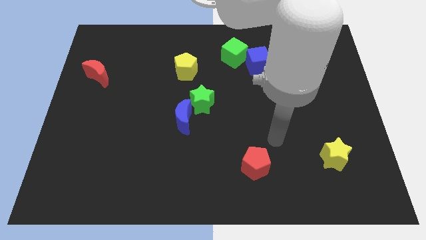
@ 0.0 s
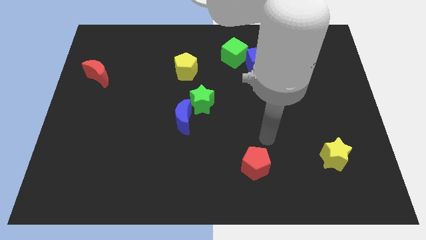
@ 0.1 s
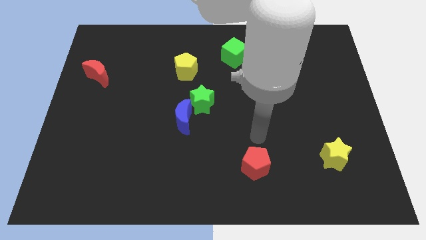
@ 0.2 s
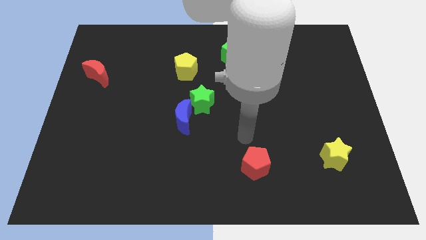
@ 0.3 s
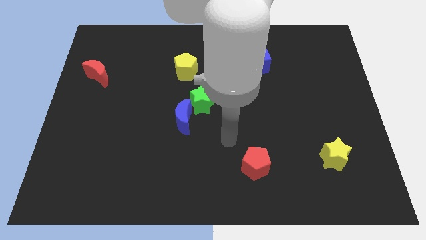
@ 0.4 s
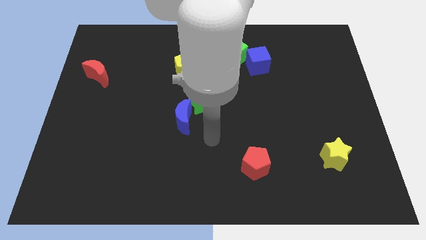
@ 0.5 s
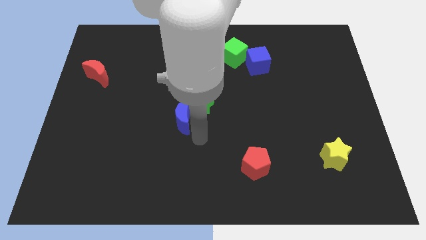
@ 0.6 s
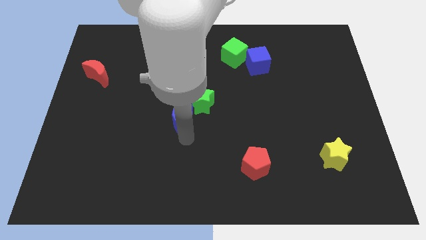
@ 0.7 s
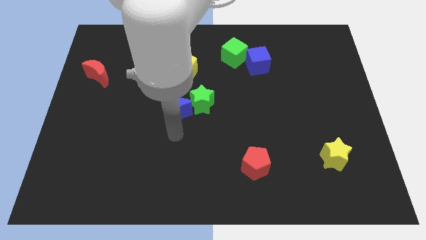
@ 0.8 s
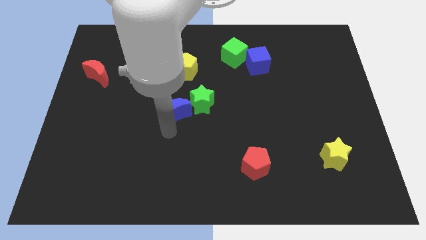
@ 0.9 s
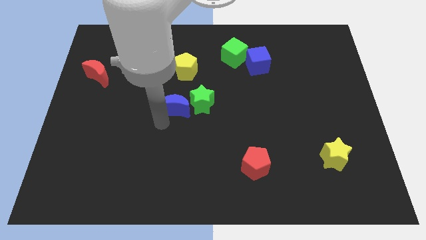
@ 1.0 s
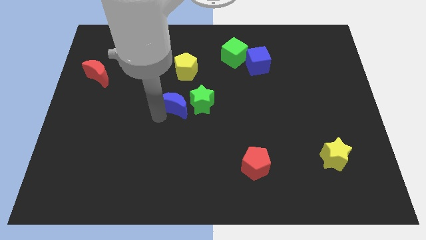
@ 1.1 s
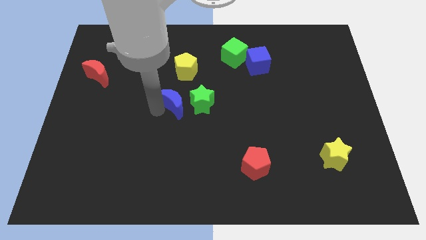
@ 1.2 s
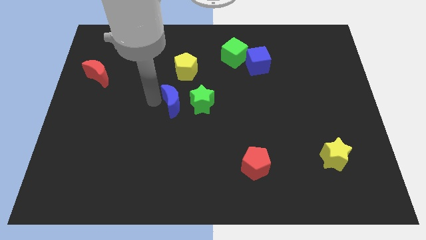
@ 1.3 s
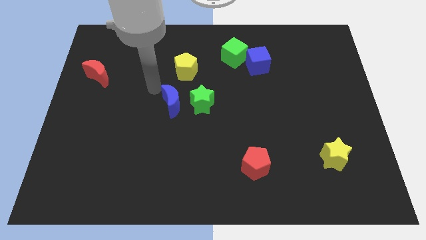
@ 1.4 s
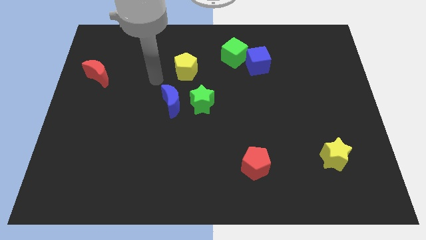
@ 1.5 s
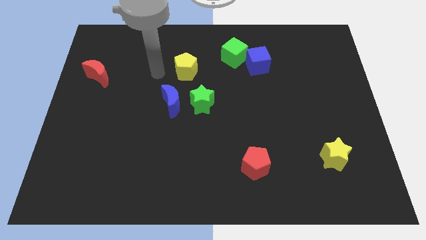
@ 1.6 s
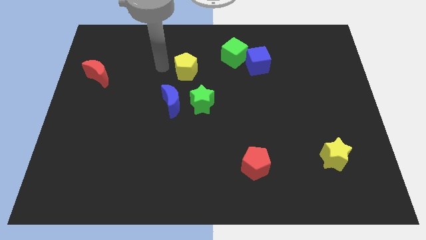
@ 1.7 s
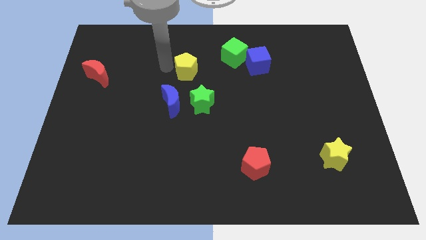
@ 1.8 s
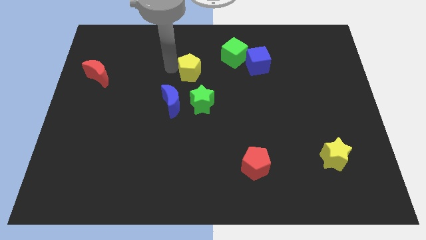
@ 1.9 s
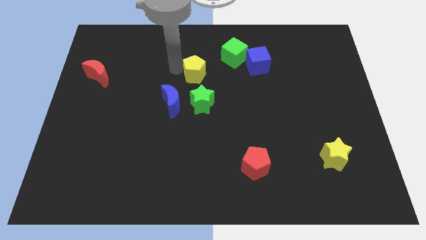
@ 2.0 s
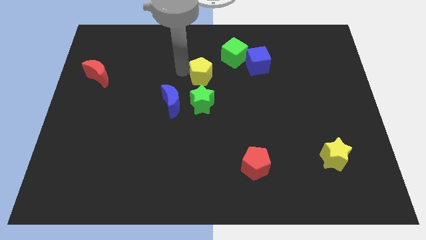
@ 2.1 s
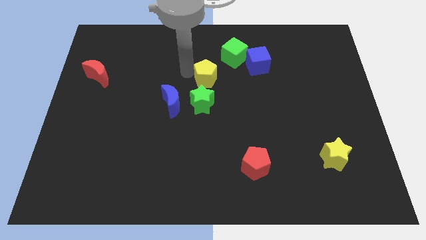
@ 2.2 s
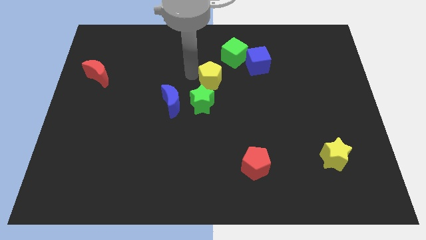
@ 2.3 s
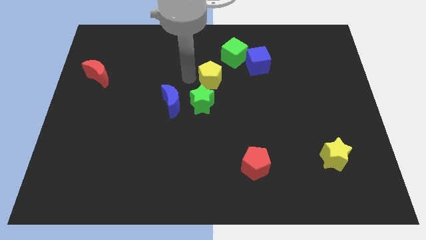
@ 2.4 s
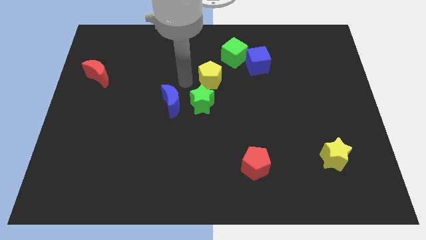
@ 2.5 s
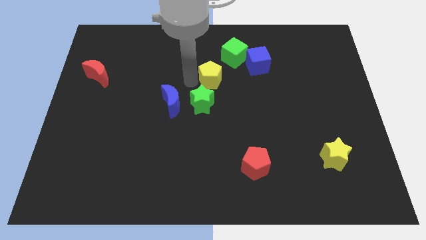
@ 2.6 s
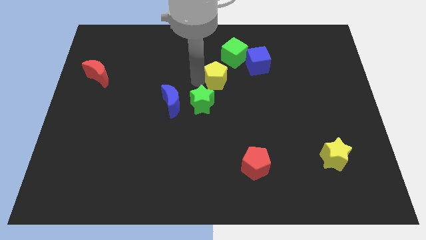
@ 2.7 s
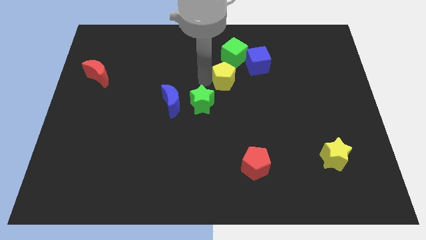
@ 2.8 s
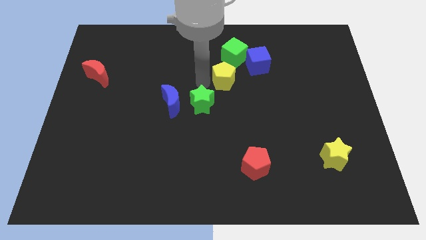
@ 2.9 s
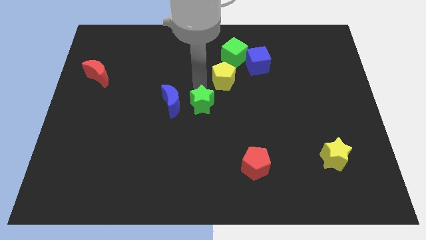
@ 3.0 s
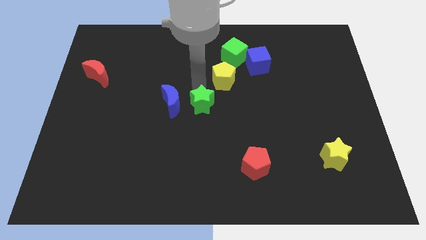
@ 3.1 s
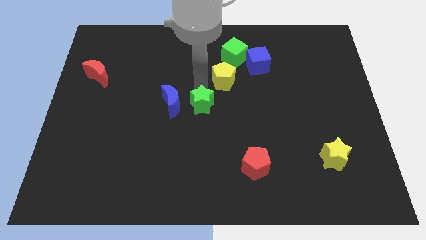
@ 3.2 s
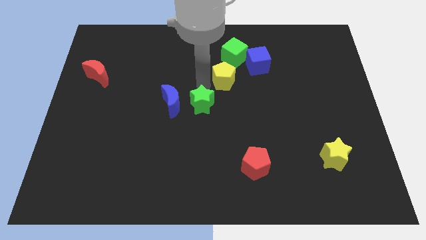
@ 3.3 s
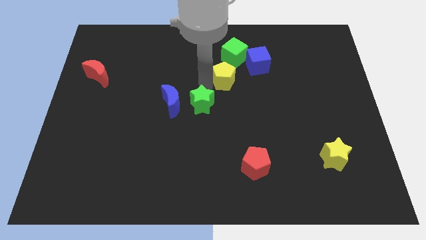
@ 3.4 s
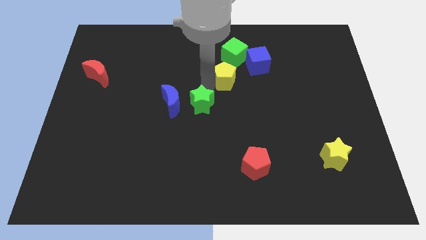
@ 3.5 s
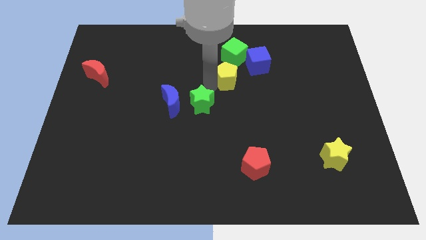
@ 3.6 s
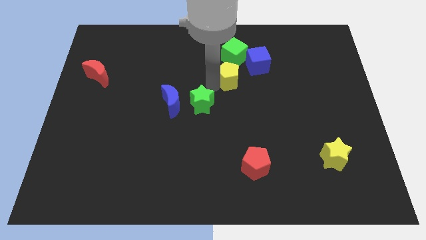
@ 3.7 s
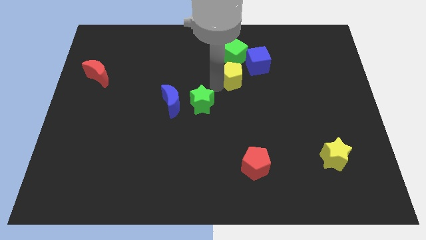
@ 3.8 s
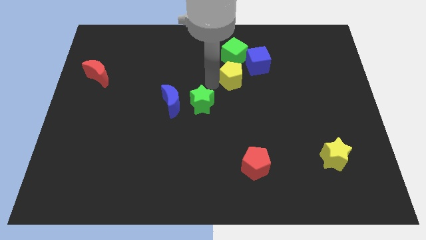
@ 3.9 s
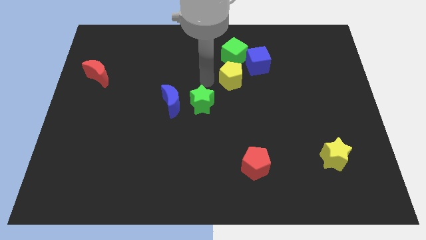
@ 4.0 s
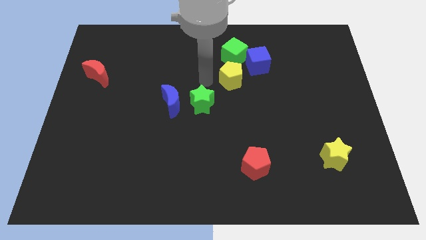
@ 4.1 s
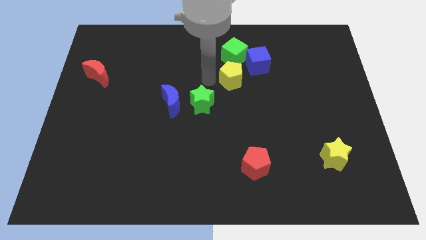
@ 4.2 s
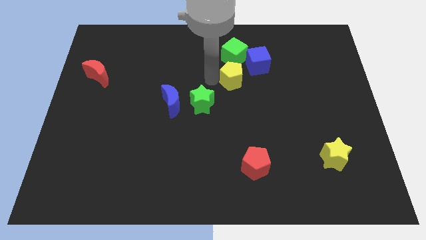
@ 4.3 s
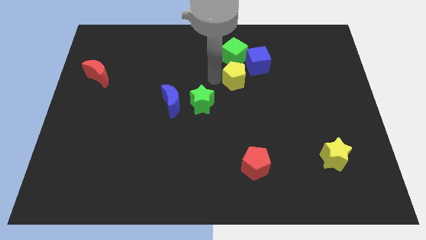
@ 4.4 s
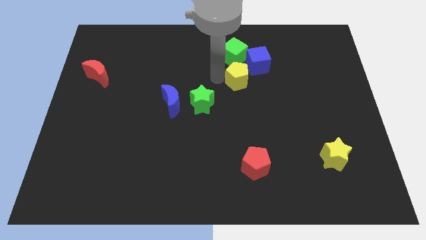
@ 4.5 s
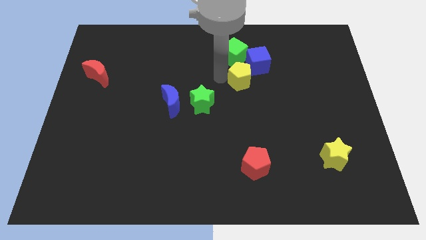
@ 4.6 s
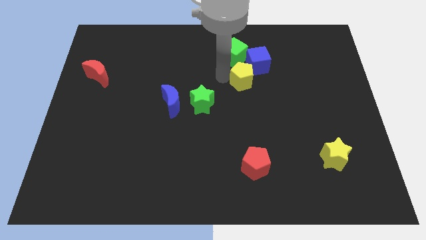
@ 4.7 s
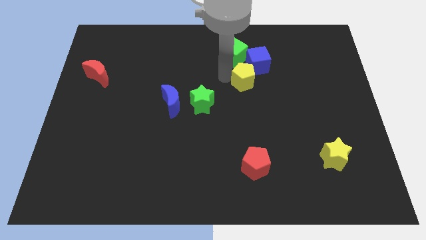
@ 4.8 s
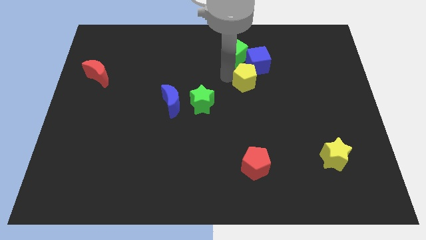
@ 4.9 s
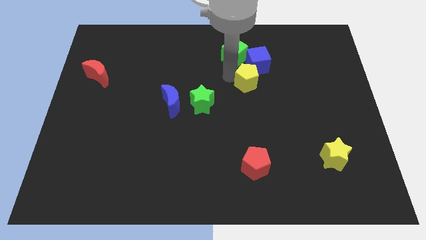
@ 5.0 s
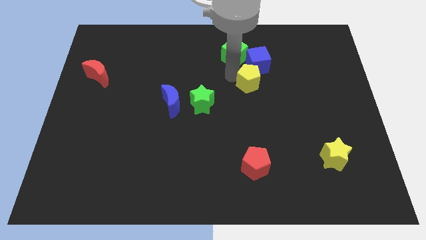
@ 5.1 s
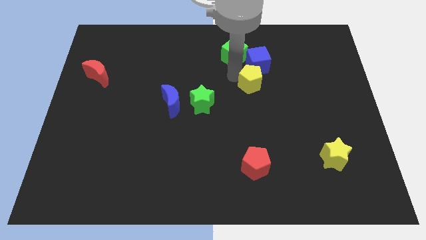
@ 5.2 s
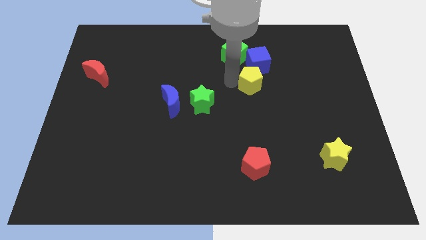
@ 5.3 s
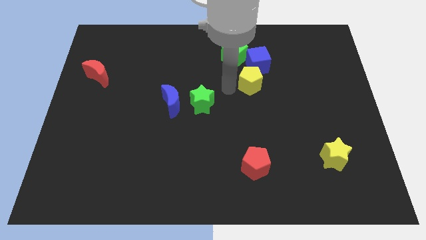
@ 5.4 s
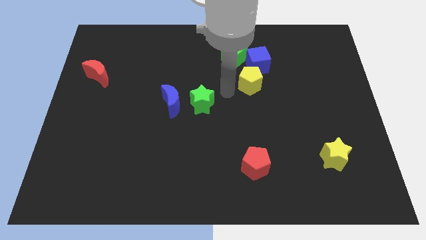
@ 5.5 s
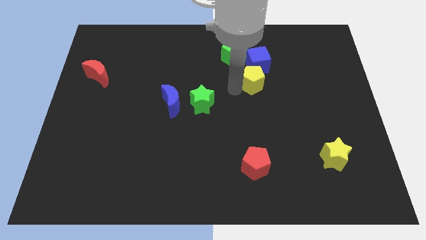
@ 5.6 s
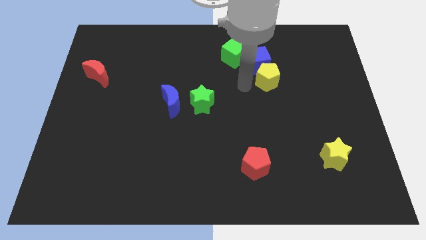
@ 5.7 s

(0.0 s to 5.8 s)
push the yellow pentagon to the right

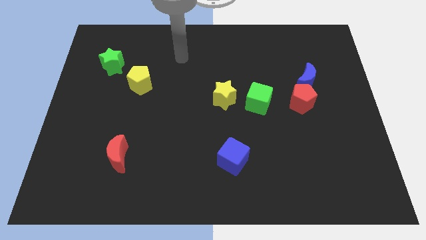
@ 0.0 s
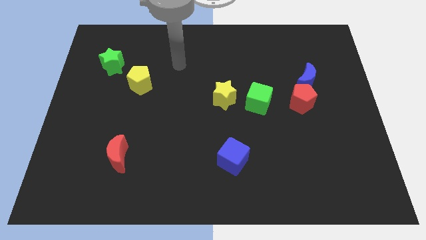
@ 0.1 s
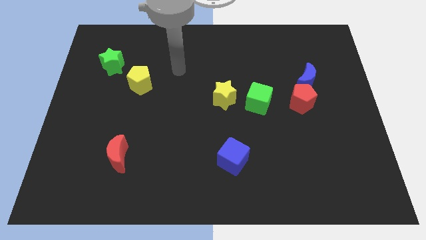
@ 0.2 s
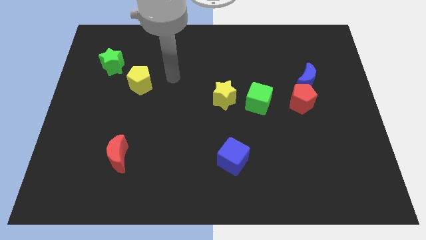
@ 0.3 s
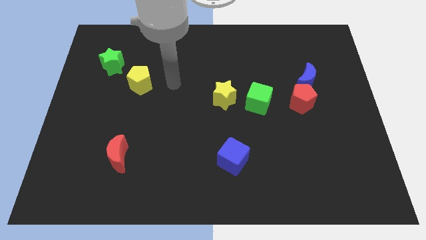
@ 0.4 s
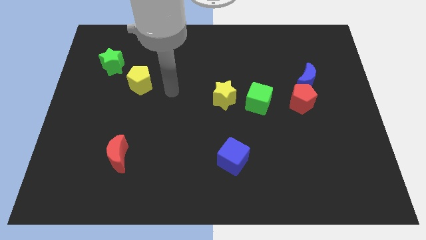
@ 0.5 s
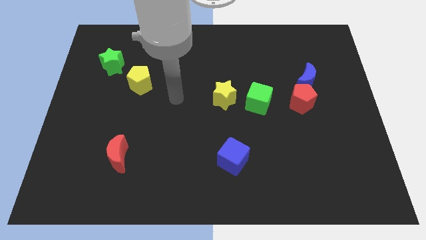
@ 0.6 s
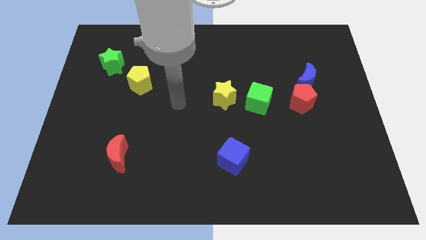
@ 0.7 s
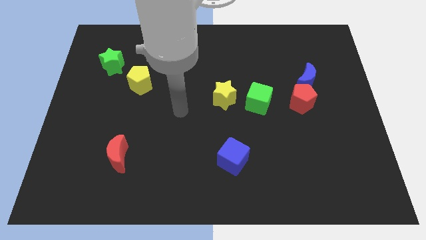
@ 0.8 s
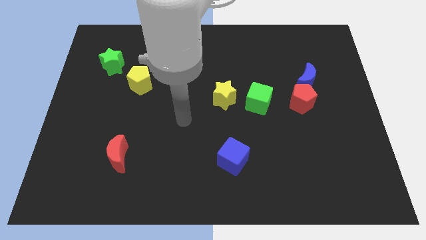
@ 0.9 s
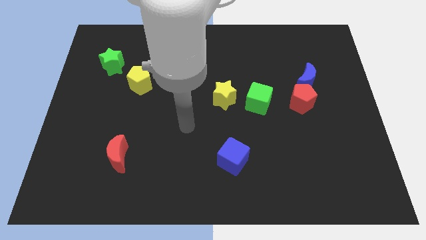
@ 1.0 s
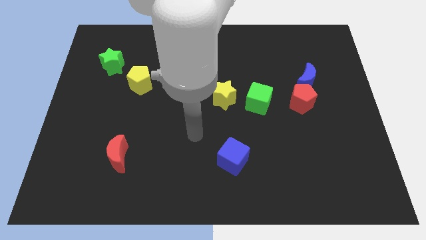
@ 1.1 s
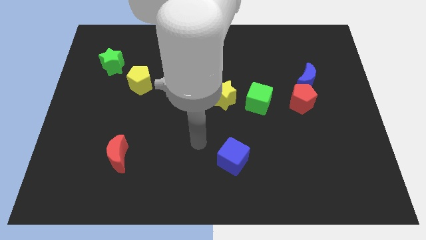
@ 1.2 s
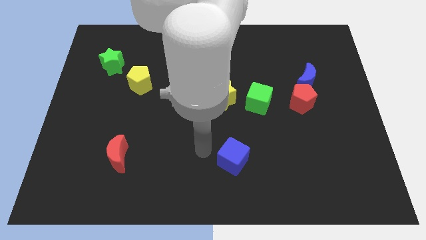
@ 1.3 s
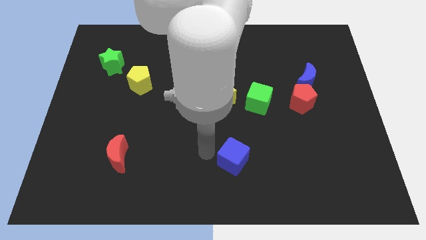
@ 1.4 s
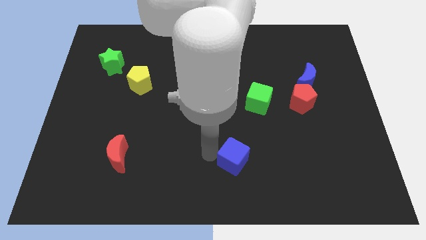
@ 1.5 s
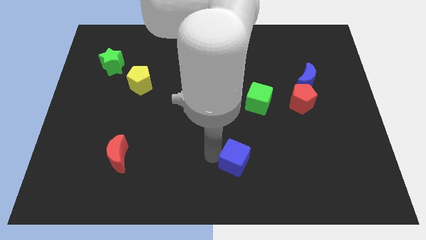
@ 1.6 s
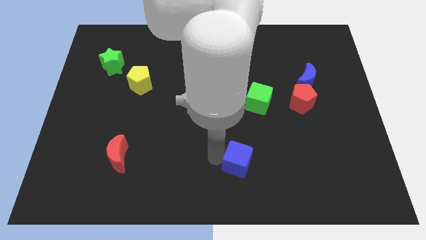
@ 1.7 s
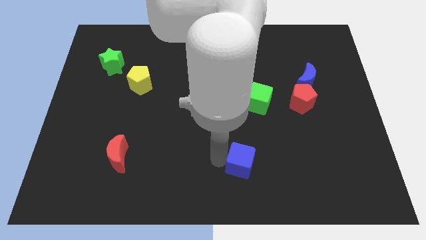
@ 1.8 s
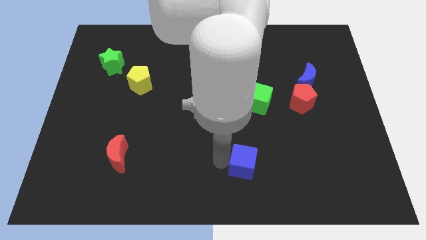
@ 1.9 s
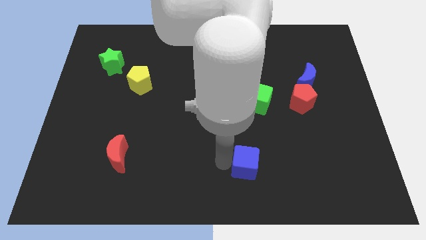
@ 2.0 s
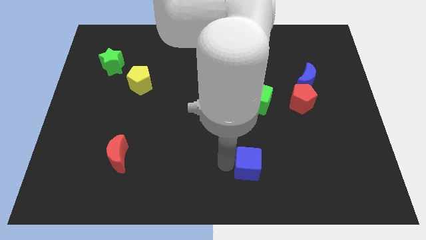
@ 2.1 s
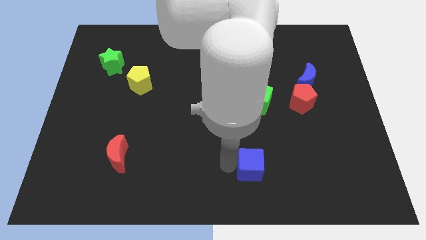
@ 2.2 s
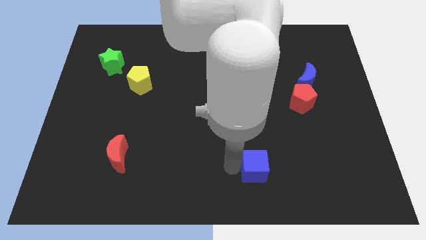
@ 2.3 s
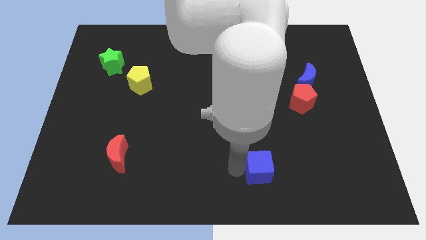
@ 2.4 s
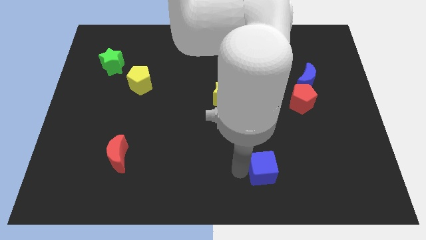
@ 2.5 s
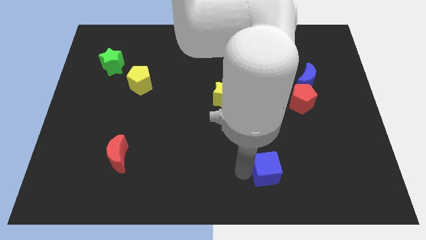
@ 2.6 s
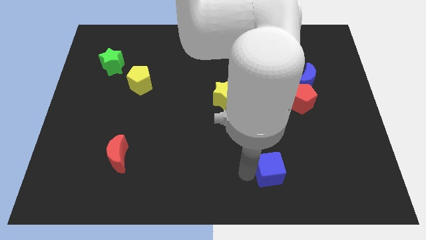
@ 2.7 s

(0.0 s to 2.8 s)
slide the blue cube a little to the right
